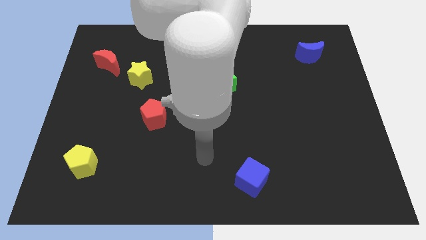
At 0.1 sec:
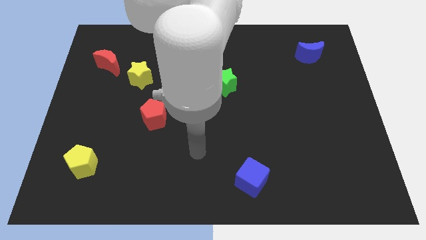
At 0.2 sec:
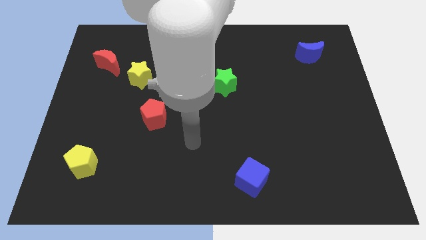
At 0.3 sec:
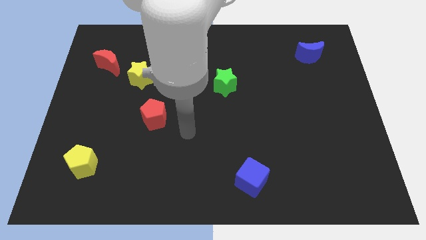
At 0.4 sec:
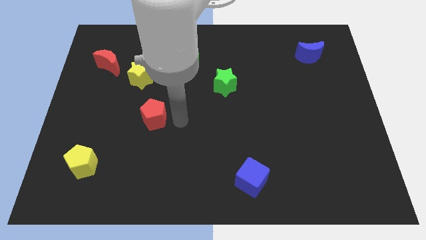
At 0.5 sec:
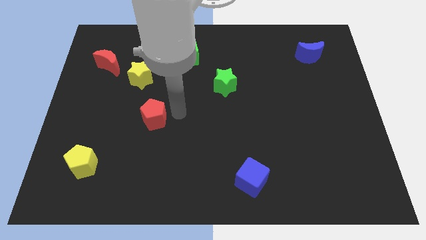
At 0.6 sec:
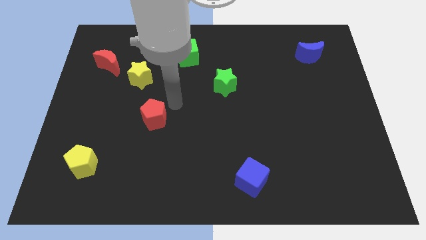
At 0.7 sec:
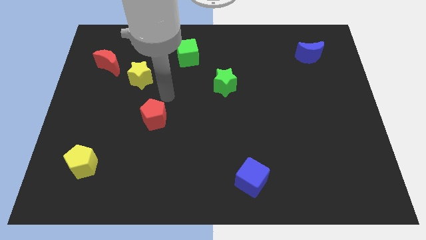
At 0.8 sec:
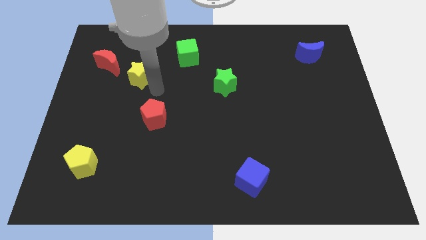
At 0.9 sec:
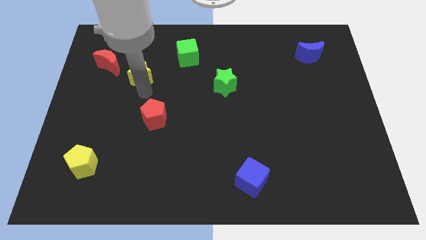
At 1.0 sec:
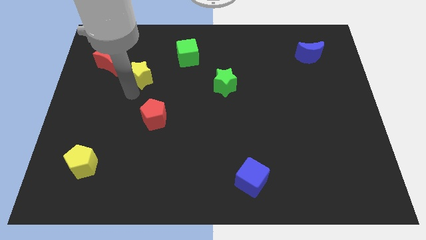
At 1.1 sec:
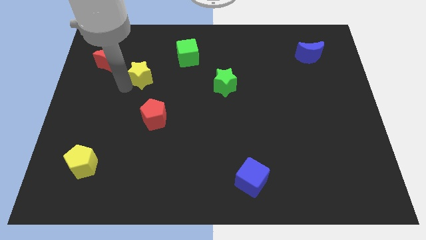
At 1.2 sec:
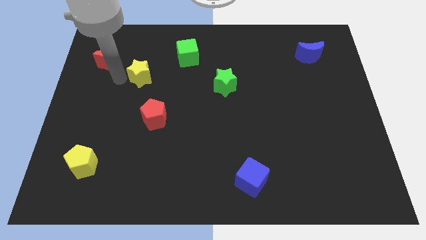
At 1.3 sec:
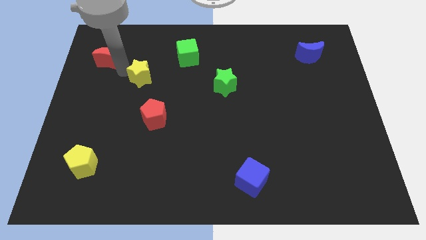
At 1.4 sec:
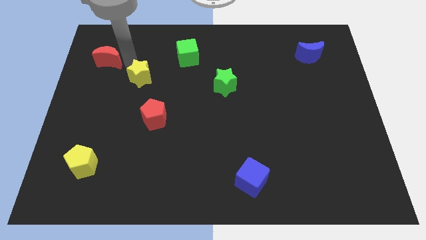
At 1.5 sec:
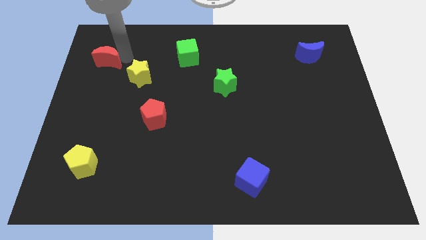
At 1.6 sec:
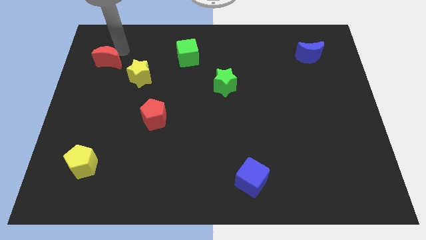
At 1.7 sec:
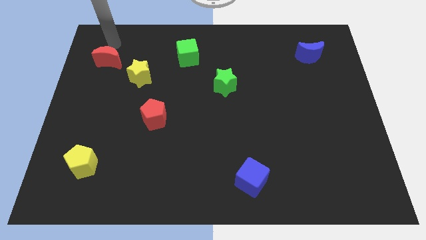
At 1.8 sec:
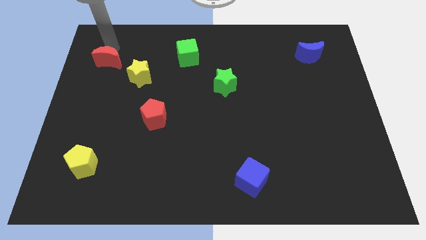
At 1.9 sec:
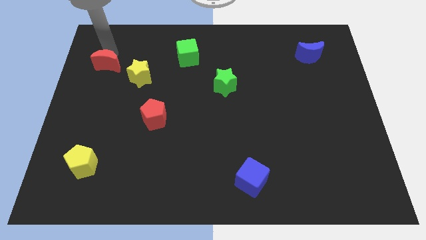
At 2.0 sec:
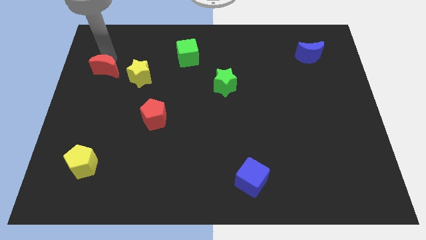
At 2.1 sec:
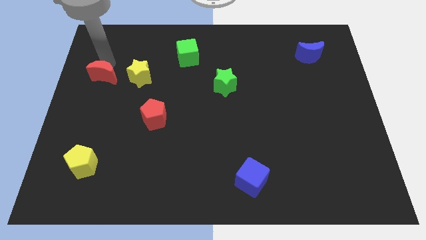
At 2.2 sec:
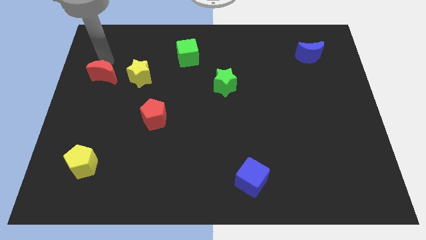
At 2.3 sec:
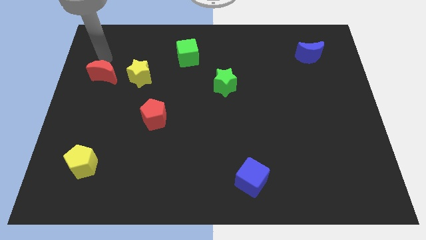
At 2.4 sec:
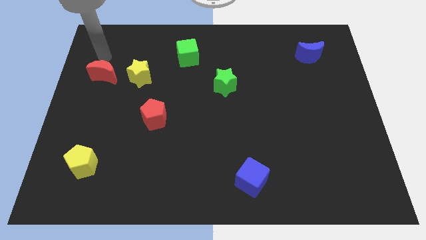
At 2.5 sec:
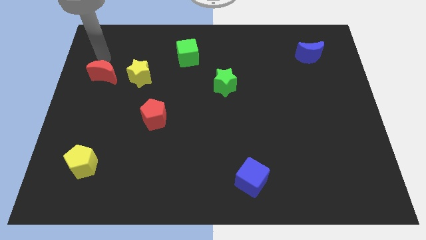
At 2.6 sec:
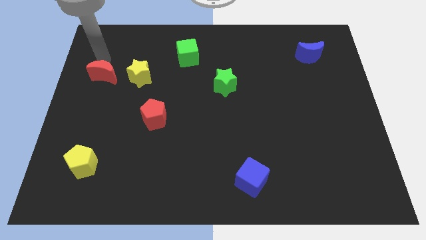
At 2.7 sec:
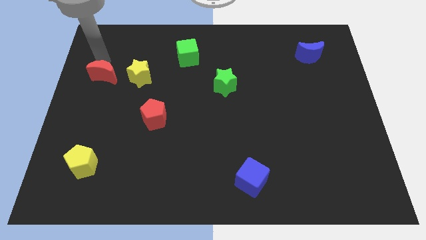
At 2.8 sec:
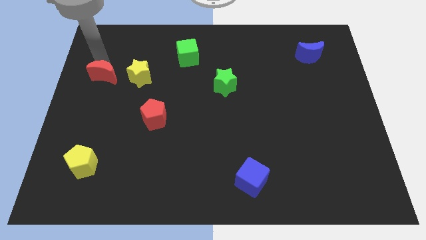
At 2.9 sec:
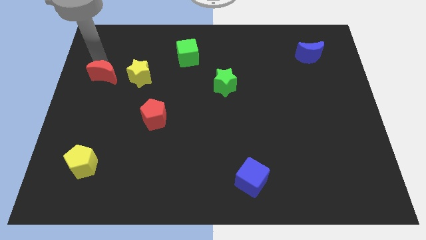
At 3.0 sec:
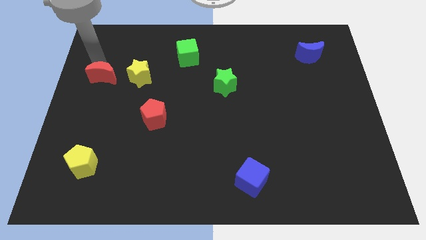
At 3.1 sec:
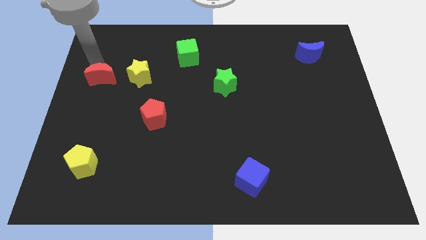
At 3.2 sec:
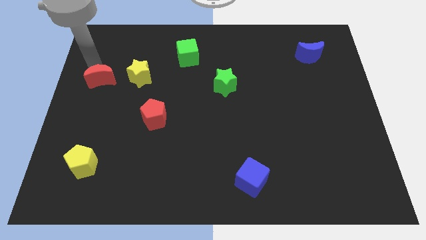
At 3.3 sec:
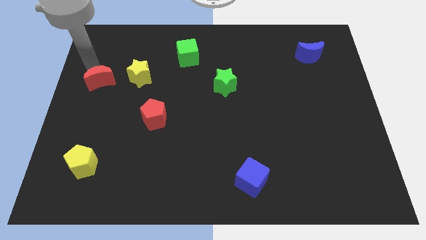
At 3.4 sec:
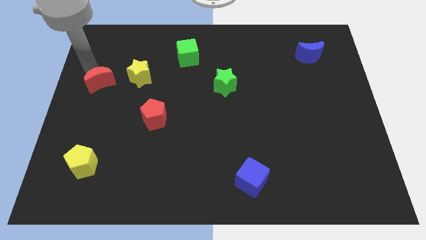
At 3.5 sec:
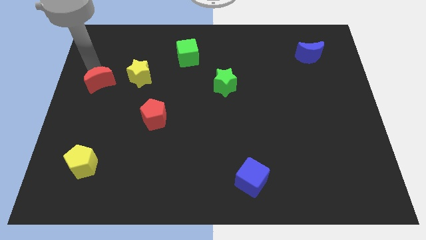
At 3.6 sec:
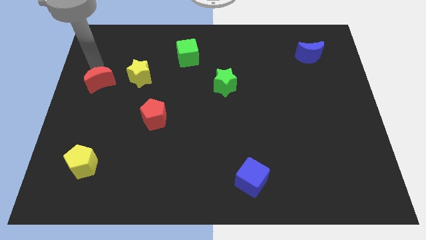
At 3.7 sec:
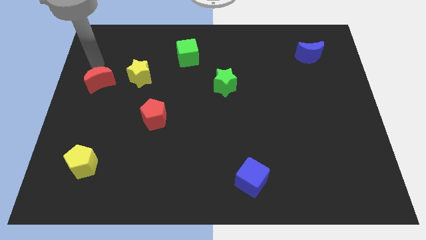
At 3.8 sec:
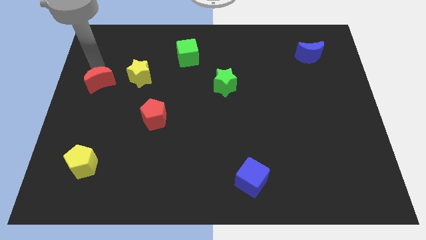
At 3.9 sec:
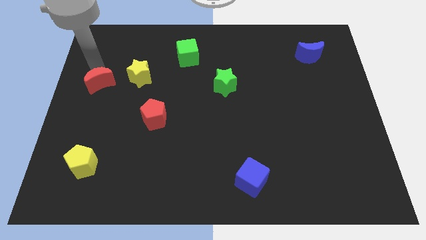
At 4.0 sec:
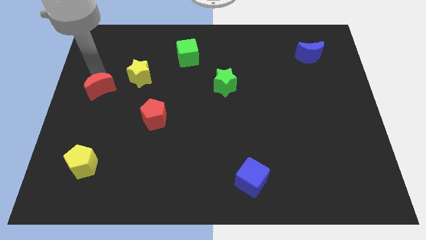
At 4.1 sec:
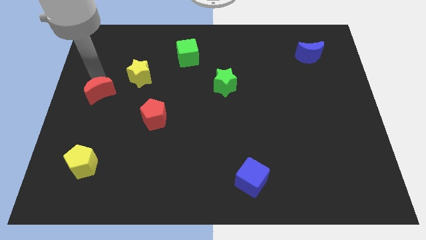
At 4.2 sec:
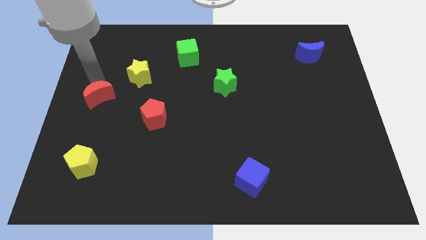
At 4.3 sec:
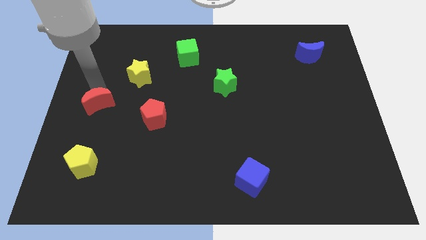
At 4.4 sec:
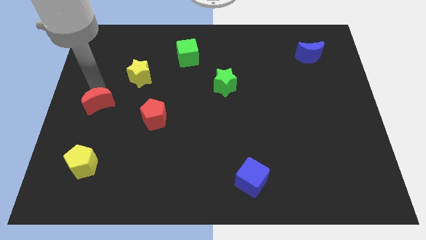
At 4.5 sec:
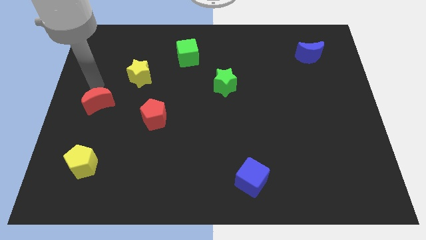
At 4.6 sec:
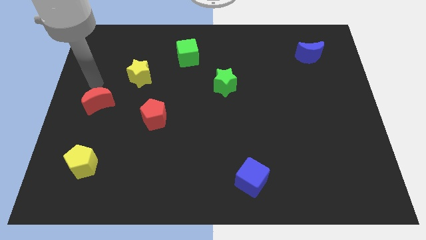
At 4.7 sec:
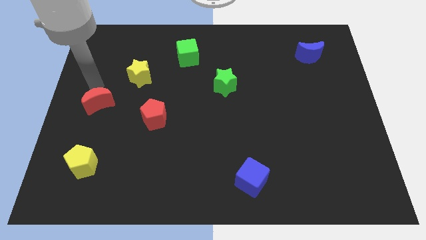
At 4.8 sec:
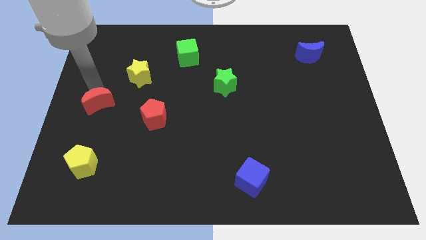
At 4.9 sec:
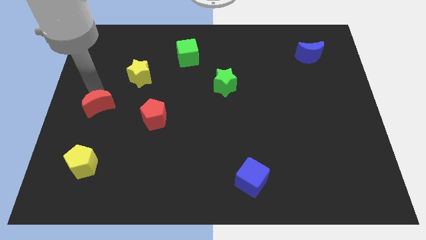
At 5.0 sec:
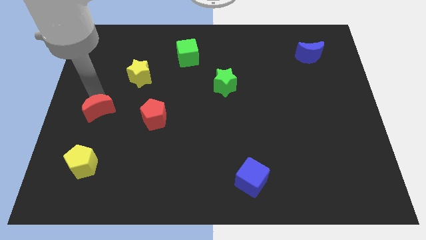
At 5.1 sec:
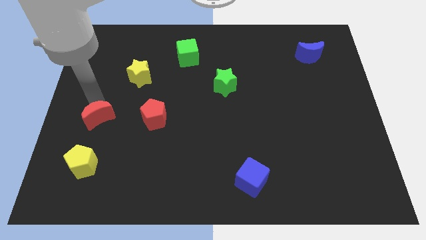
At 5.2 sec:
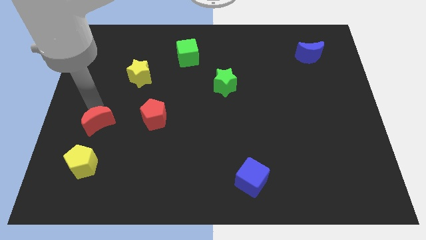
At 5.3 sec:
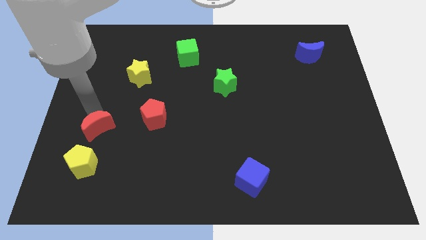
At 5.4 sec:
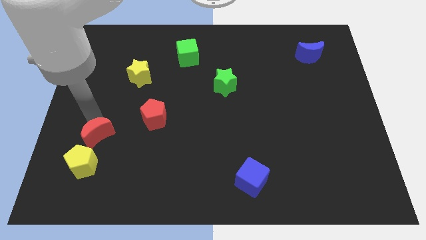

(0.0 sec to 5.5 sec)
move the red moon to the top right of the yellow pentagon
